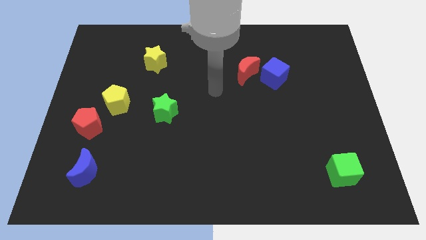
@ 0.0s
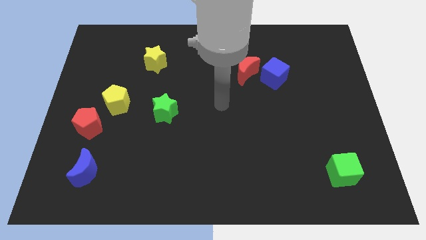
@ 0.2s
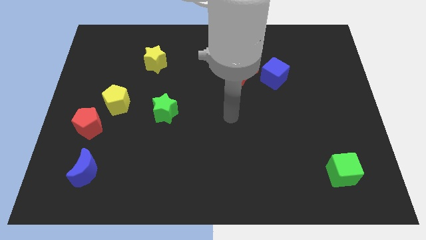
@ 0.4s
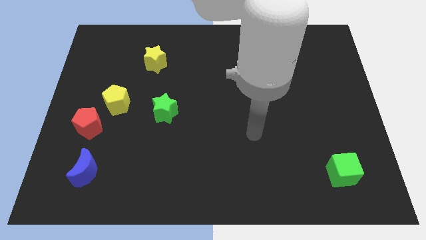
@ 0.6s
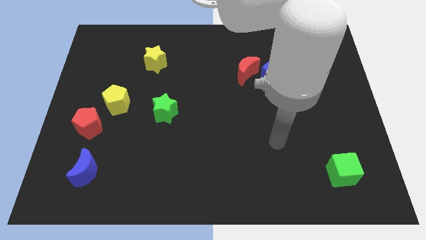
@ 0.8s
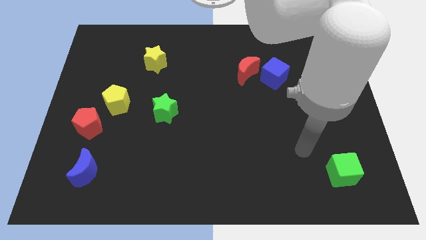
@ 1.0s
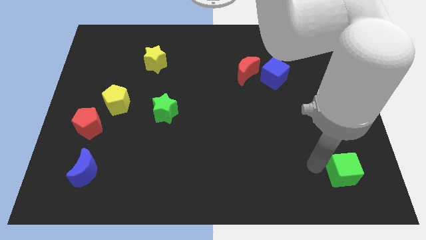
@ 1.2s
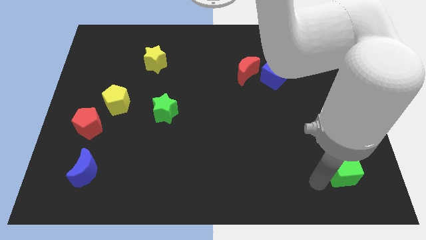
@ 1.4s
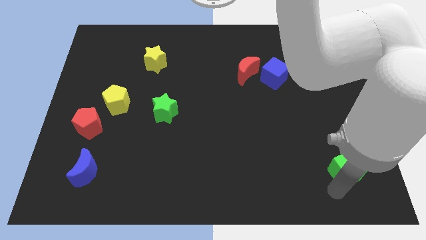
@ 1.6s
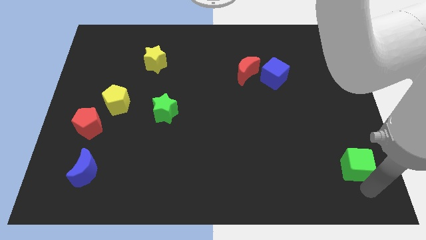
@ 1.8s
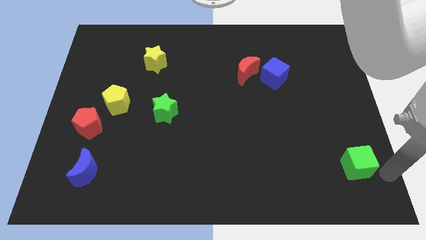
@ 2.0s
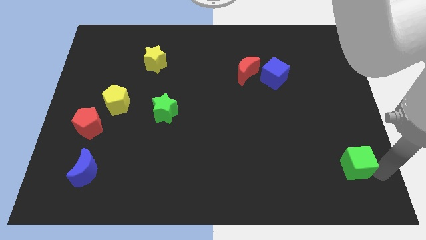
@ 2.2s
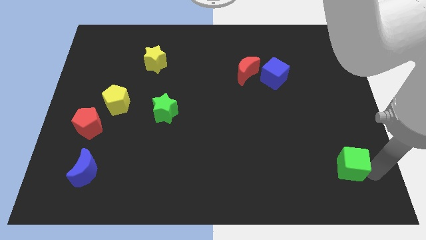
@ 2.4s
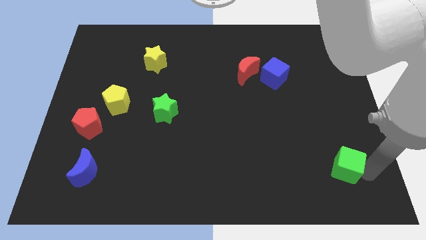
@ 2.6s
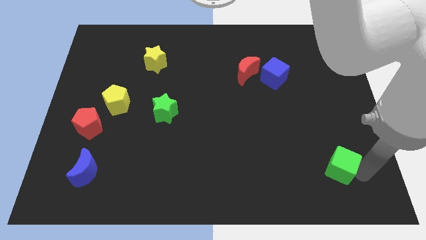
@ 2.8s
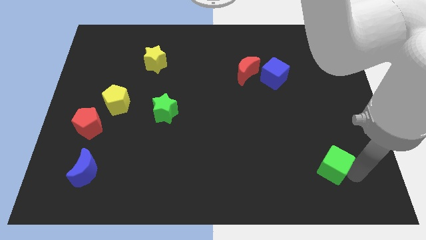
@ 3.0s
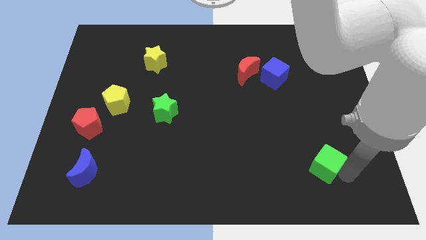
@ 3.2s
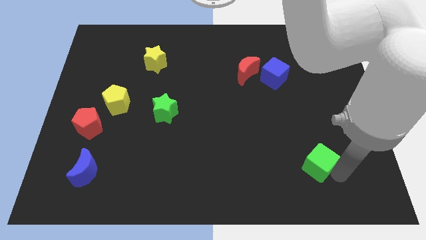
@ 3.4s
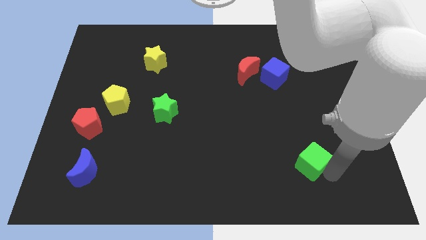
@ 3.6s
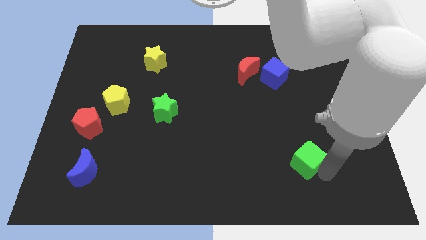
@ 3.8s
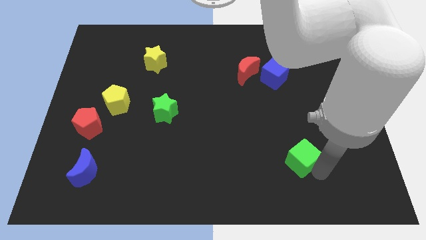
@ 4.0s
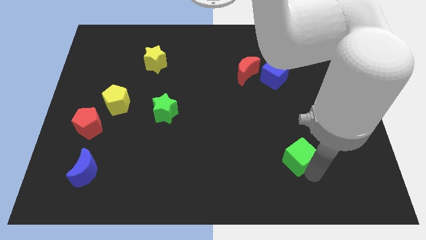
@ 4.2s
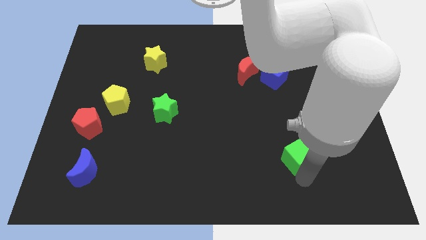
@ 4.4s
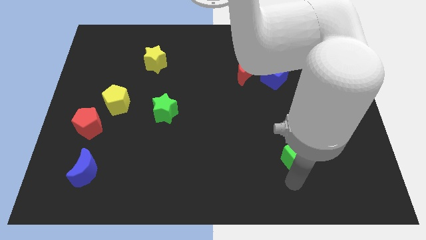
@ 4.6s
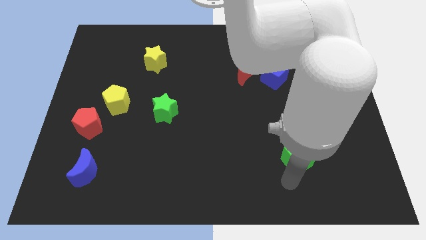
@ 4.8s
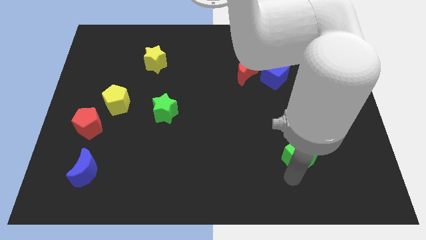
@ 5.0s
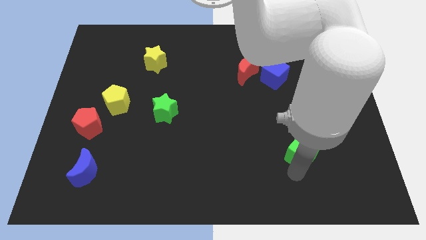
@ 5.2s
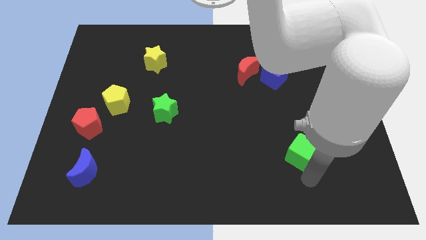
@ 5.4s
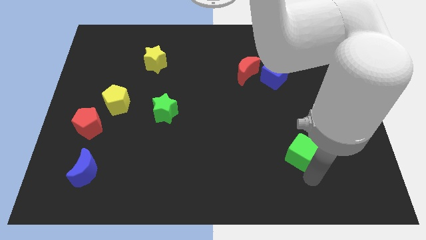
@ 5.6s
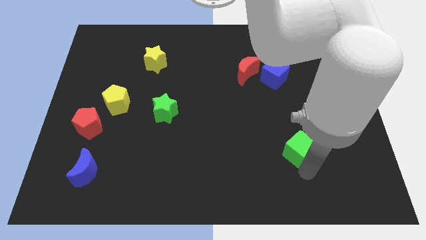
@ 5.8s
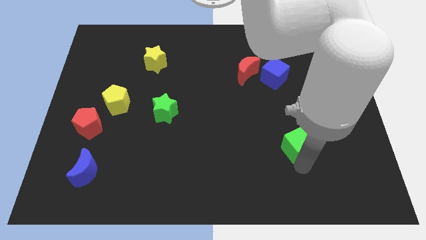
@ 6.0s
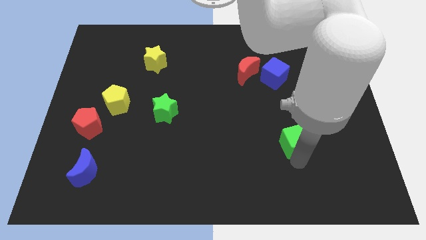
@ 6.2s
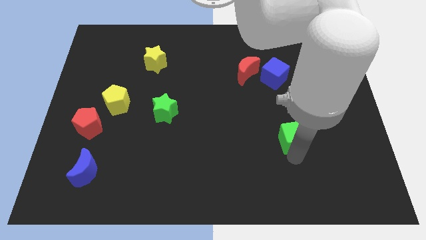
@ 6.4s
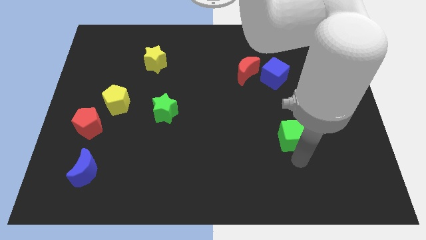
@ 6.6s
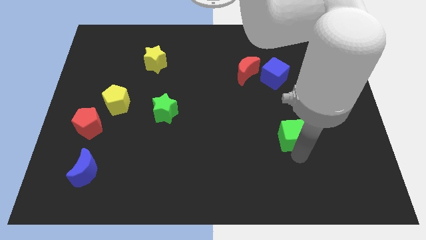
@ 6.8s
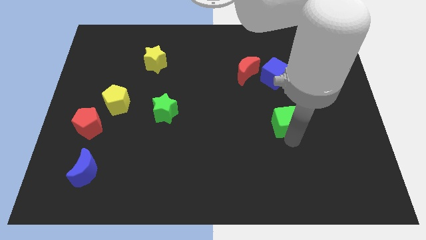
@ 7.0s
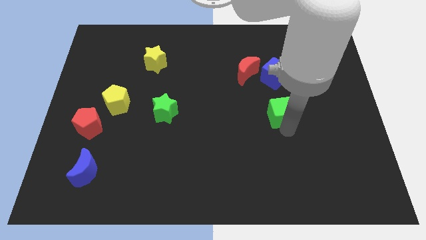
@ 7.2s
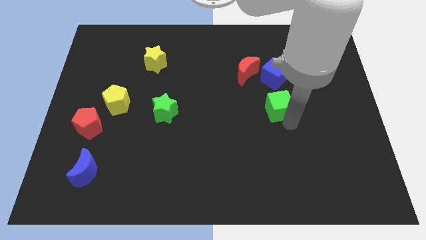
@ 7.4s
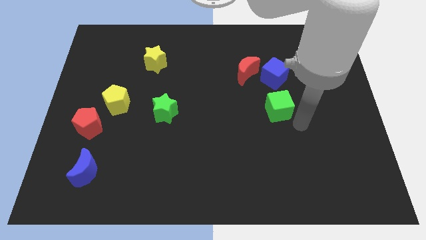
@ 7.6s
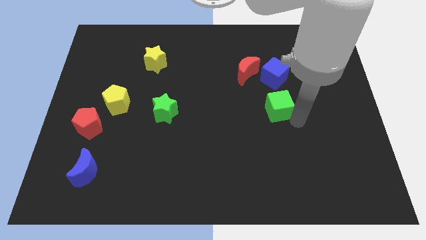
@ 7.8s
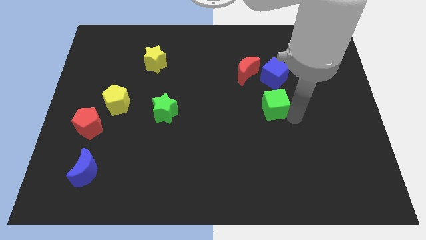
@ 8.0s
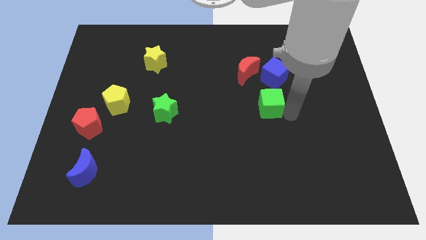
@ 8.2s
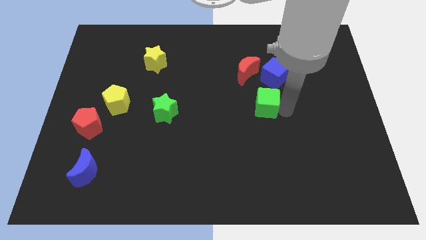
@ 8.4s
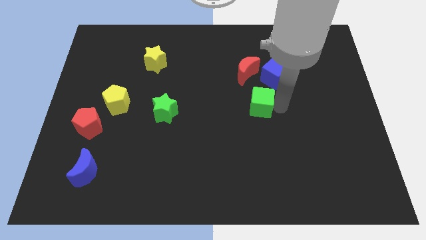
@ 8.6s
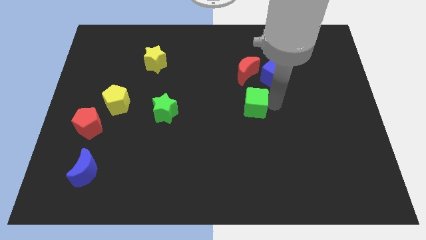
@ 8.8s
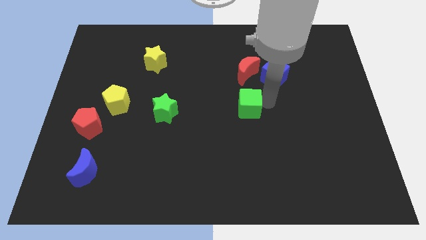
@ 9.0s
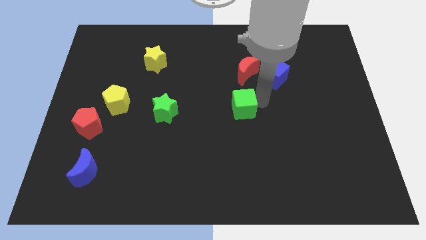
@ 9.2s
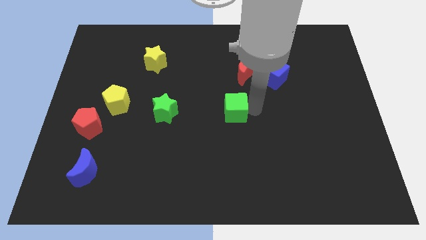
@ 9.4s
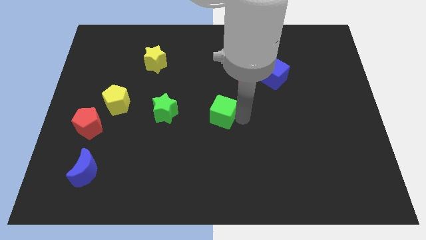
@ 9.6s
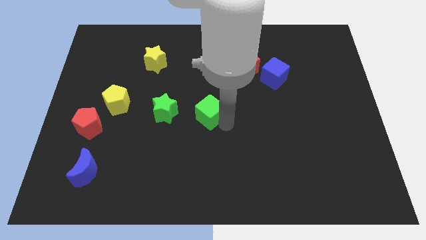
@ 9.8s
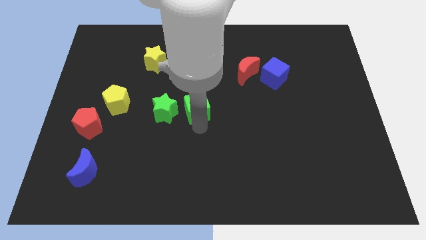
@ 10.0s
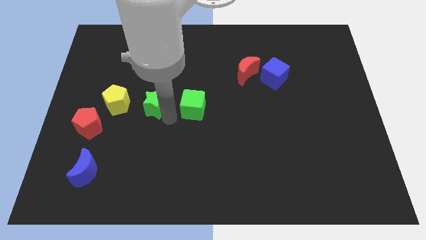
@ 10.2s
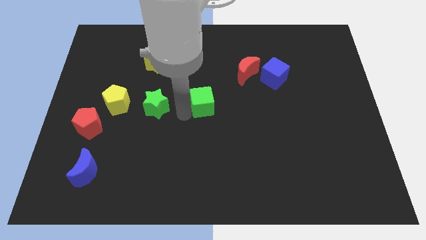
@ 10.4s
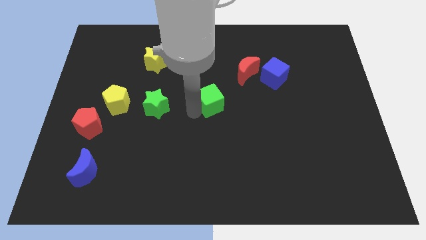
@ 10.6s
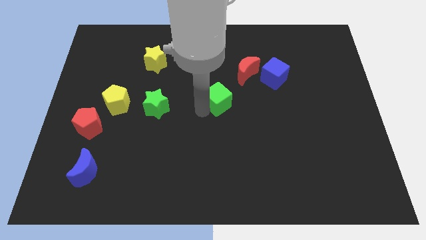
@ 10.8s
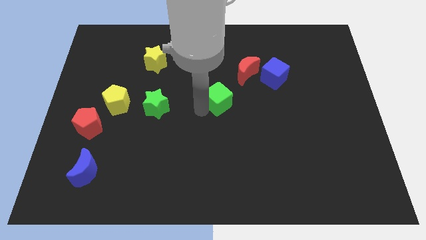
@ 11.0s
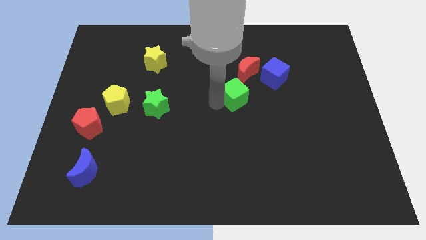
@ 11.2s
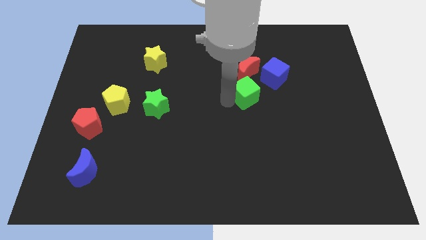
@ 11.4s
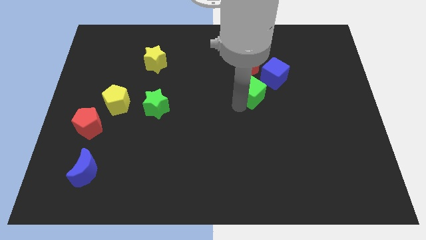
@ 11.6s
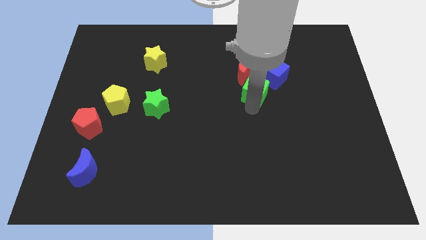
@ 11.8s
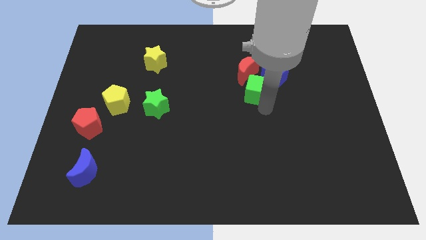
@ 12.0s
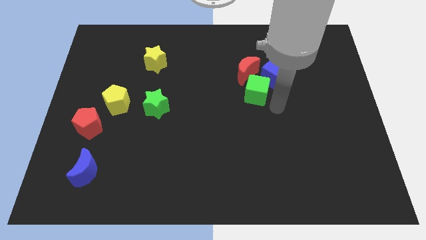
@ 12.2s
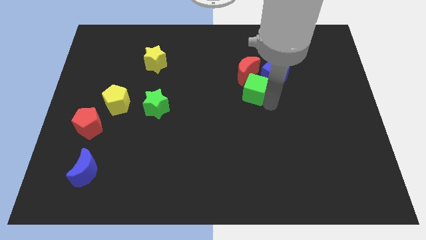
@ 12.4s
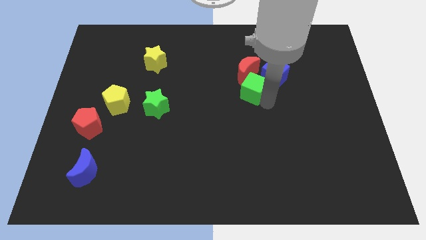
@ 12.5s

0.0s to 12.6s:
slide the green cube left of the blue cube

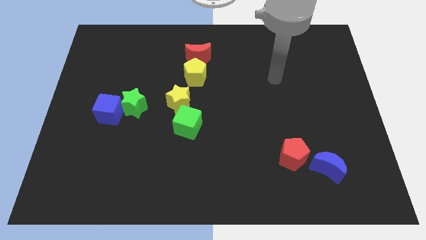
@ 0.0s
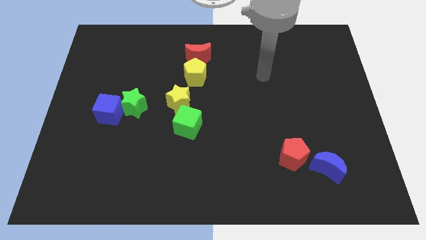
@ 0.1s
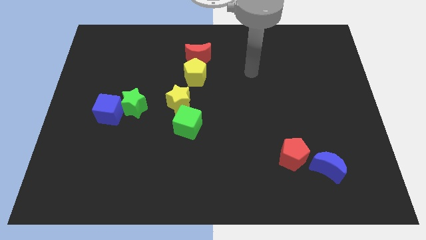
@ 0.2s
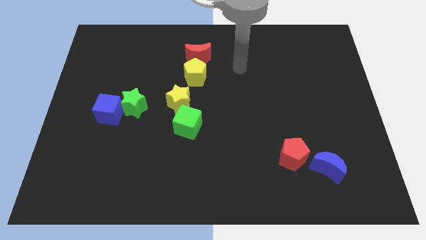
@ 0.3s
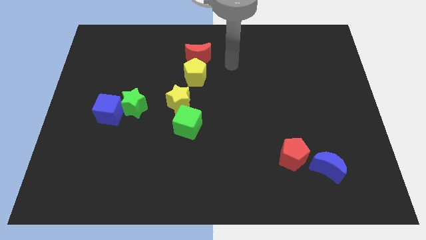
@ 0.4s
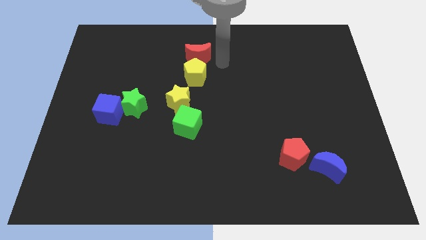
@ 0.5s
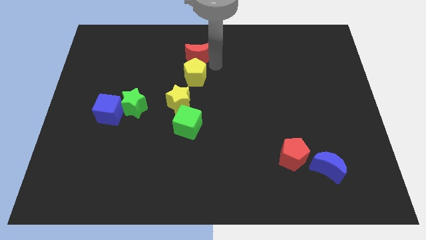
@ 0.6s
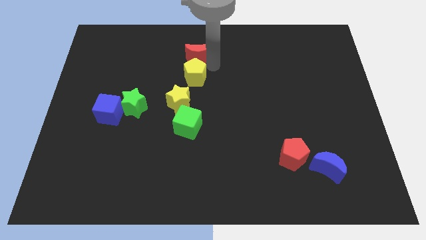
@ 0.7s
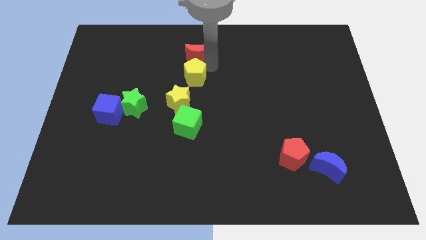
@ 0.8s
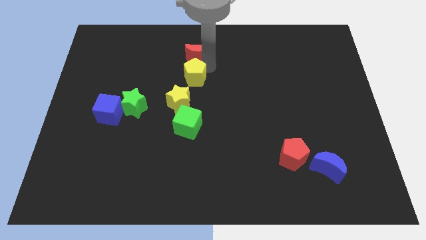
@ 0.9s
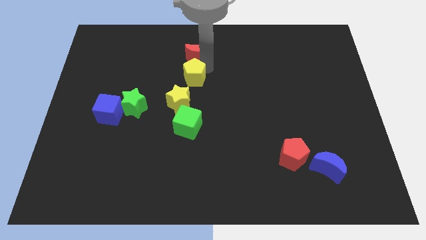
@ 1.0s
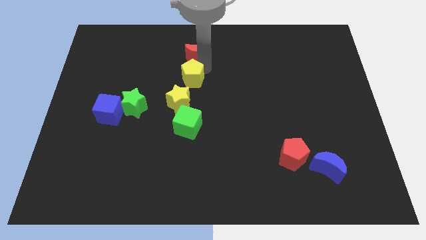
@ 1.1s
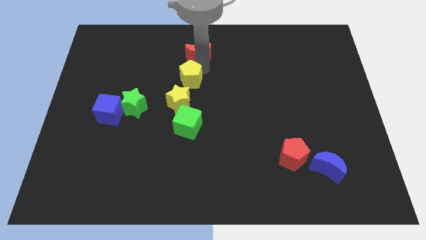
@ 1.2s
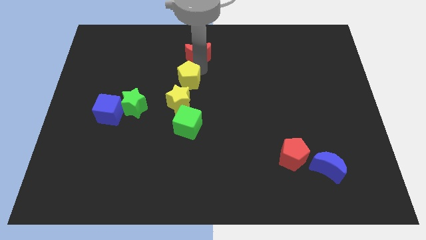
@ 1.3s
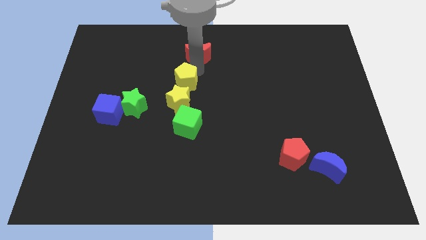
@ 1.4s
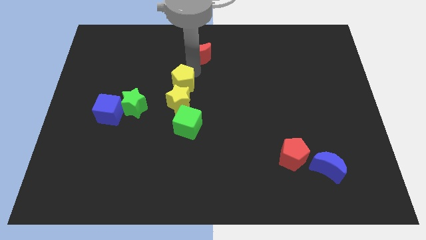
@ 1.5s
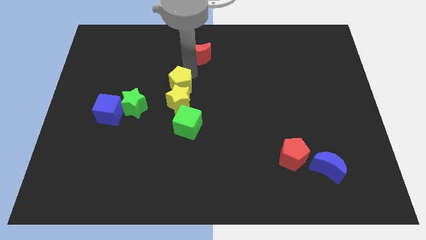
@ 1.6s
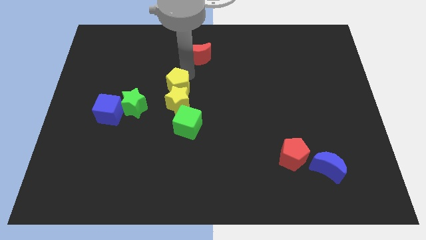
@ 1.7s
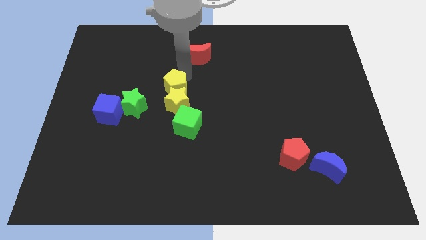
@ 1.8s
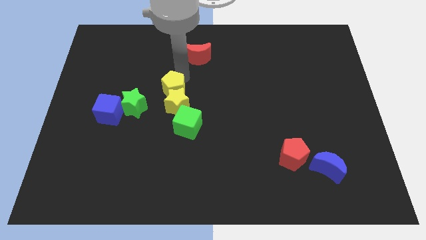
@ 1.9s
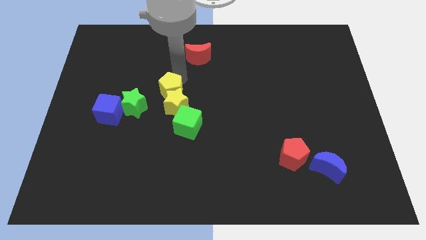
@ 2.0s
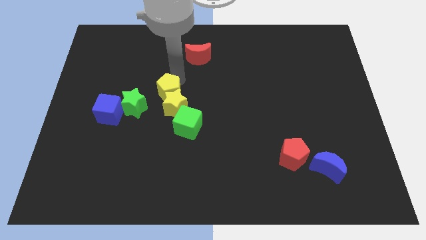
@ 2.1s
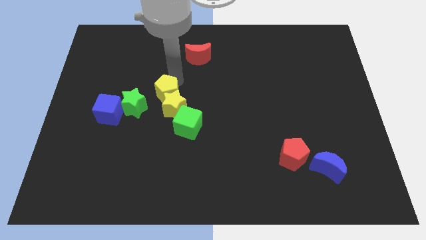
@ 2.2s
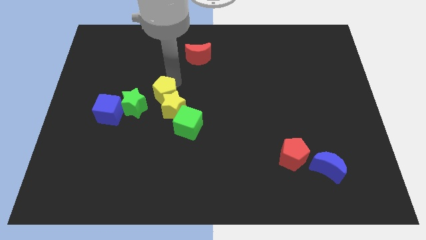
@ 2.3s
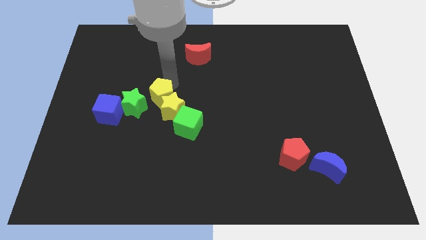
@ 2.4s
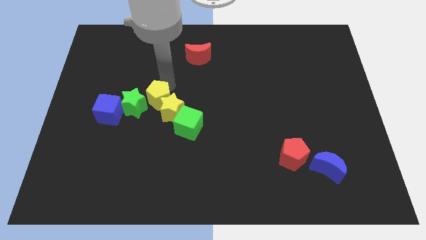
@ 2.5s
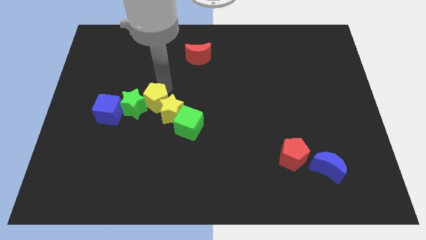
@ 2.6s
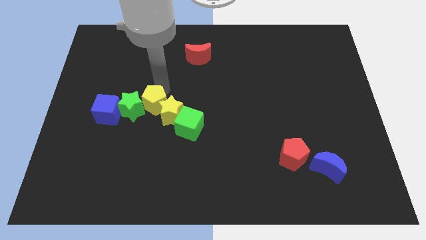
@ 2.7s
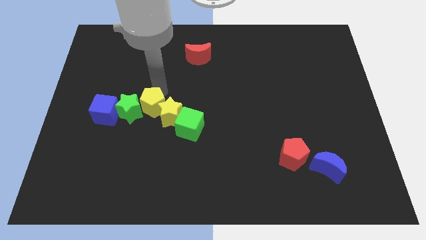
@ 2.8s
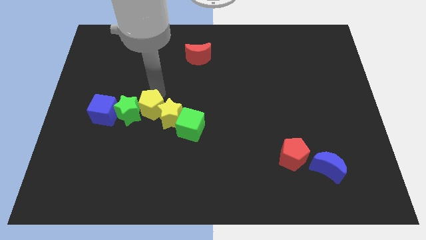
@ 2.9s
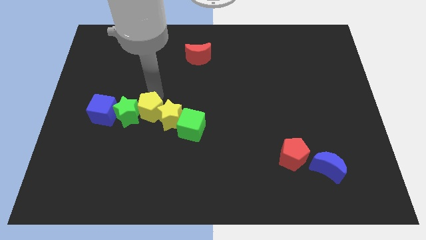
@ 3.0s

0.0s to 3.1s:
push the yellow pentagon left of the green cube
